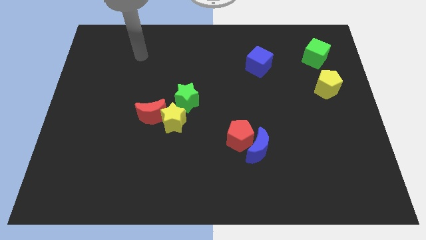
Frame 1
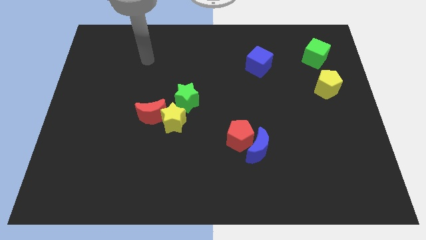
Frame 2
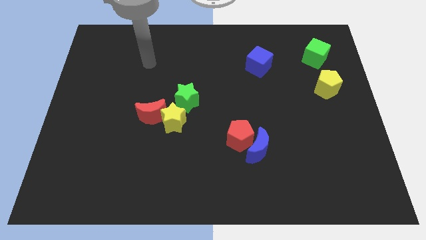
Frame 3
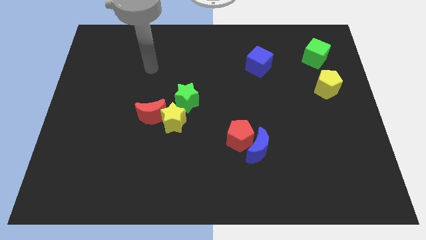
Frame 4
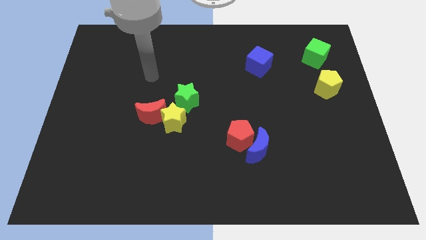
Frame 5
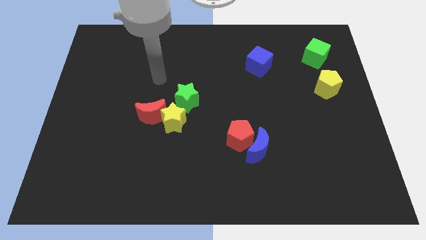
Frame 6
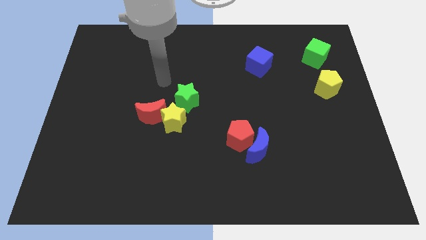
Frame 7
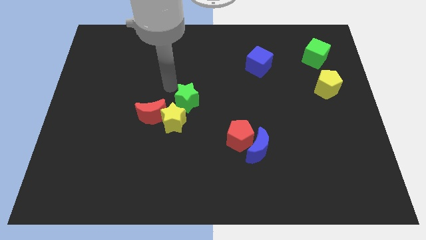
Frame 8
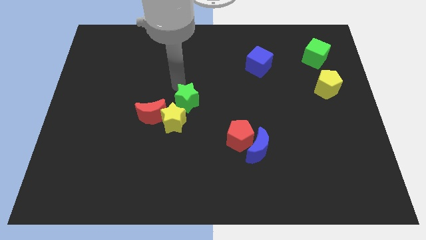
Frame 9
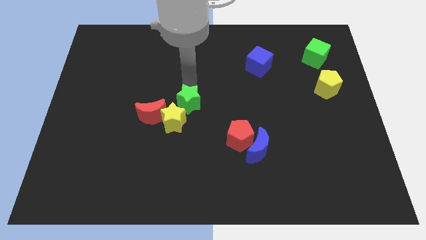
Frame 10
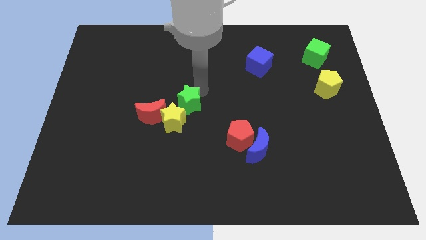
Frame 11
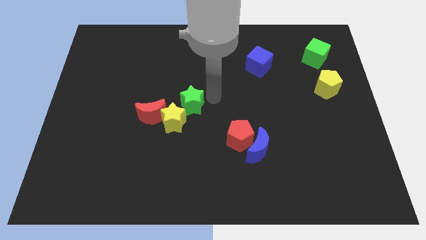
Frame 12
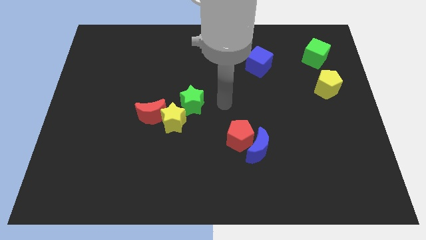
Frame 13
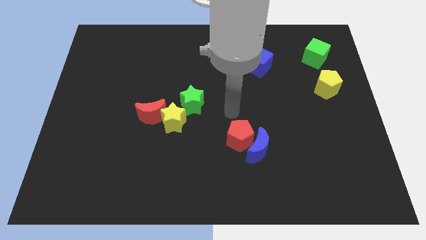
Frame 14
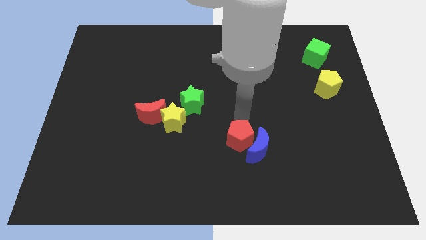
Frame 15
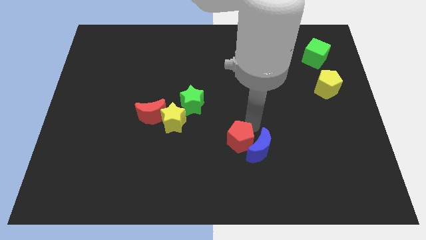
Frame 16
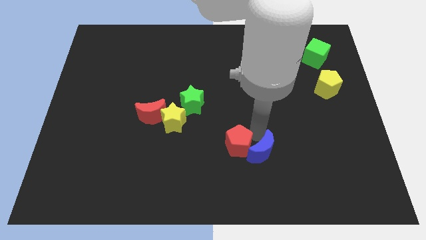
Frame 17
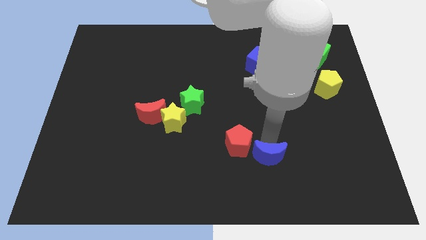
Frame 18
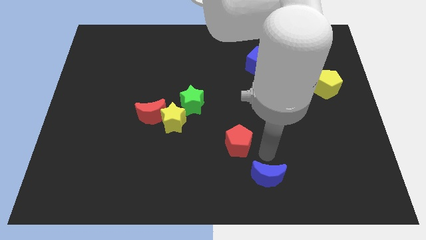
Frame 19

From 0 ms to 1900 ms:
move the red pentagon away from the blue moon

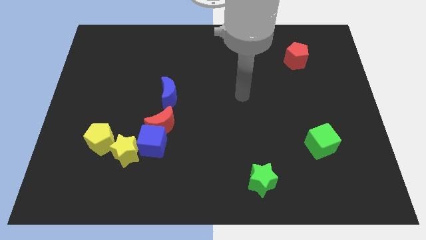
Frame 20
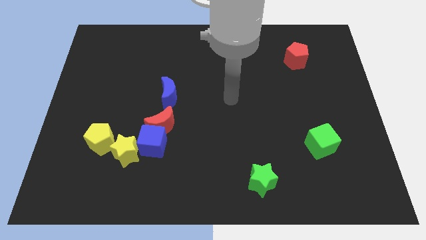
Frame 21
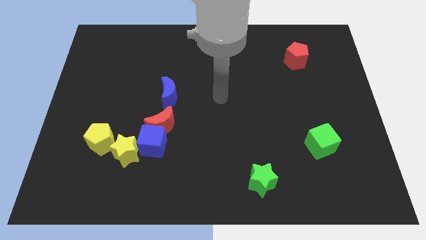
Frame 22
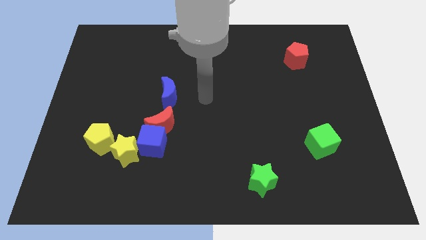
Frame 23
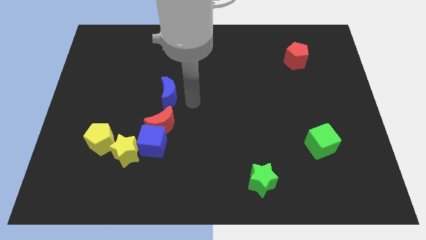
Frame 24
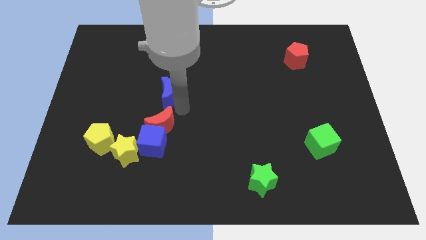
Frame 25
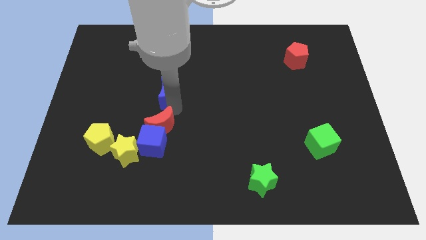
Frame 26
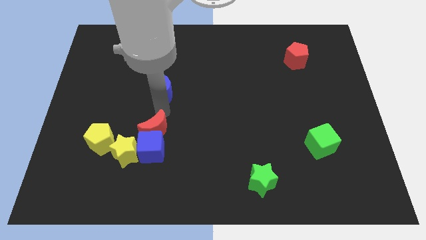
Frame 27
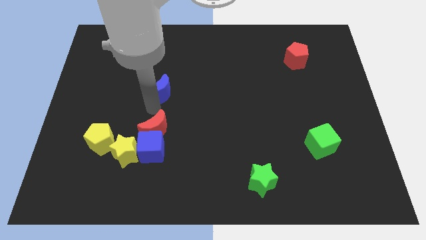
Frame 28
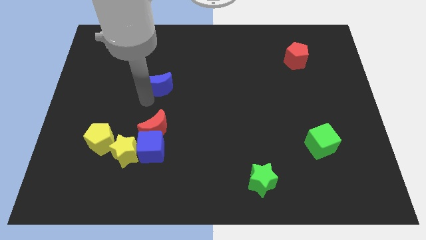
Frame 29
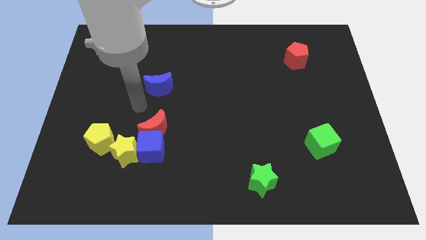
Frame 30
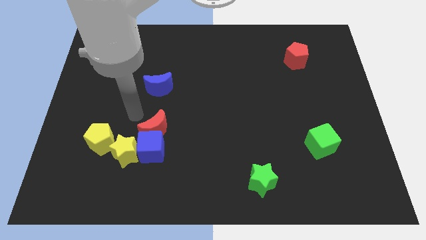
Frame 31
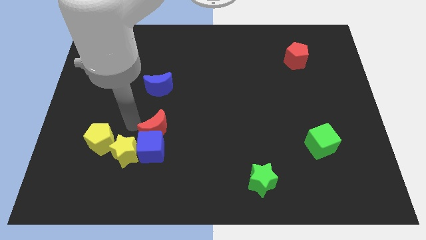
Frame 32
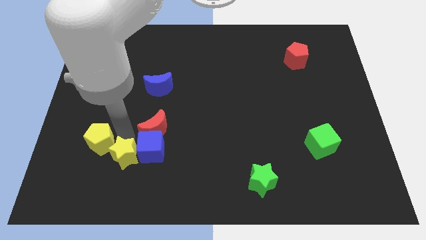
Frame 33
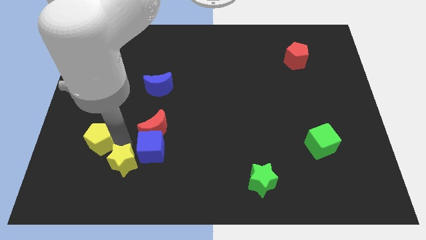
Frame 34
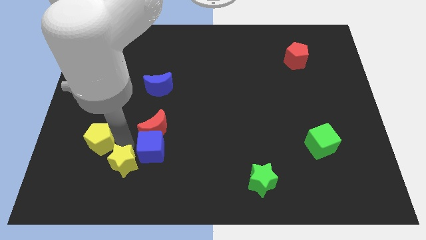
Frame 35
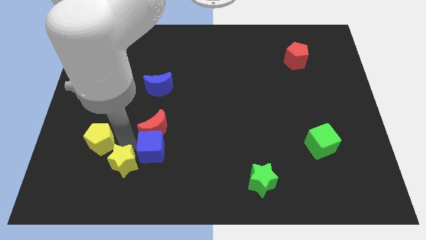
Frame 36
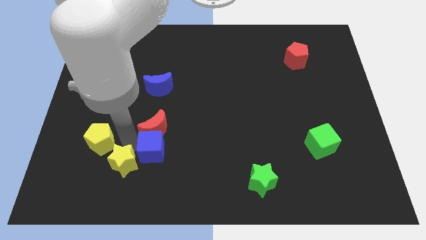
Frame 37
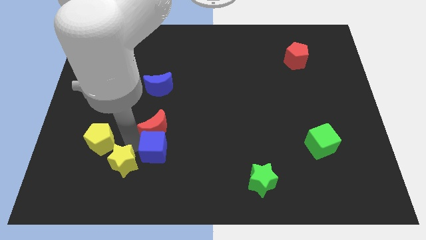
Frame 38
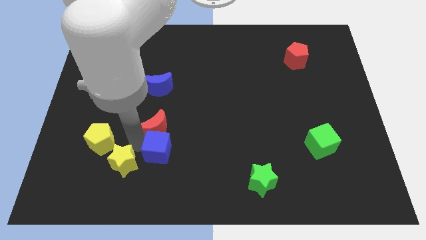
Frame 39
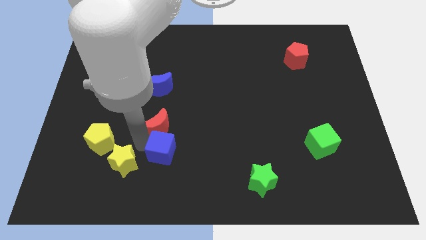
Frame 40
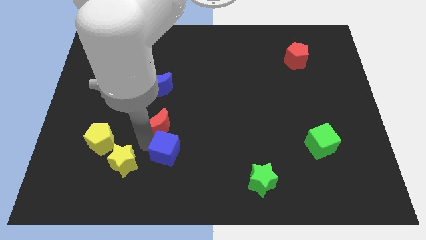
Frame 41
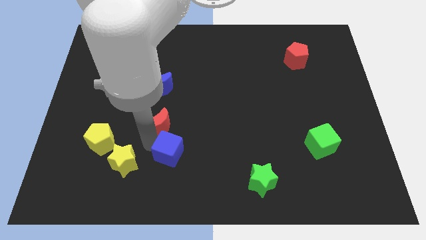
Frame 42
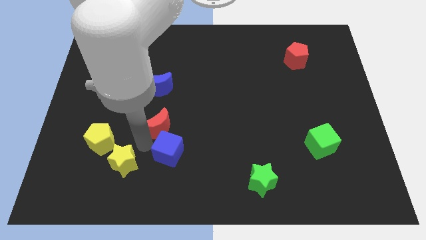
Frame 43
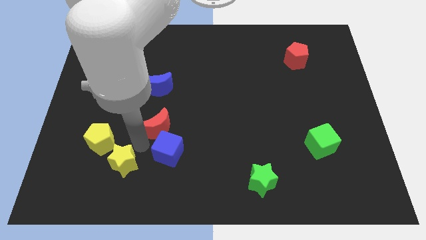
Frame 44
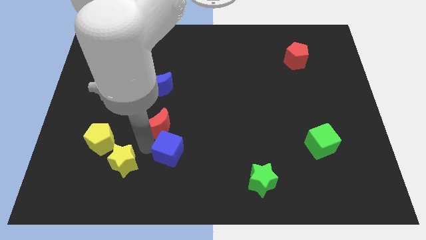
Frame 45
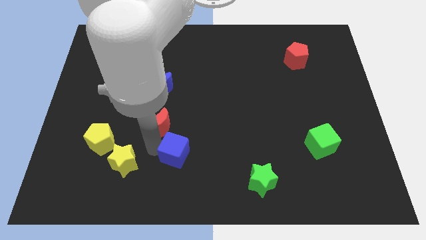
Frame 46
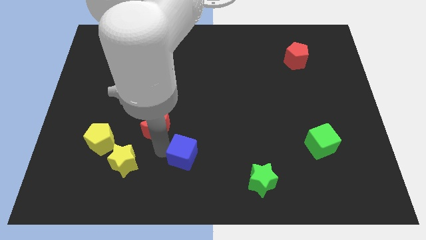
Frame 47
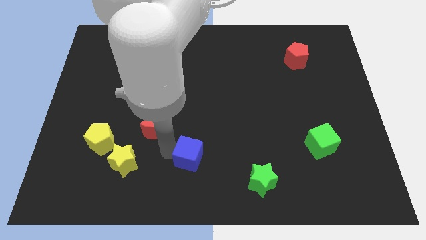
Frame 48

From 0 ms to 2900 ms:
move the blue cube away from the red moon and yellow star

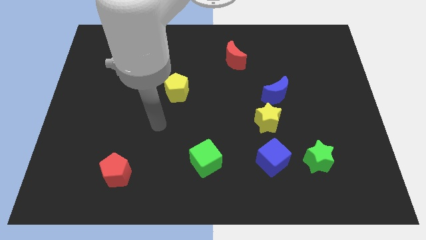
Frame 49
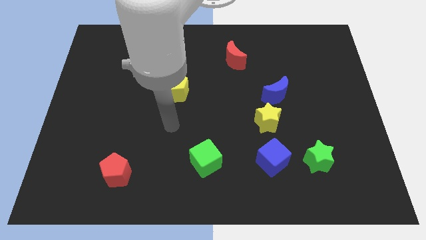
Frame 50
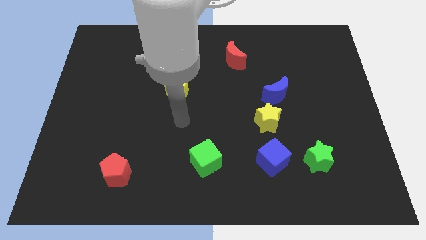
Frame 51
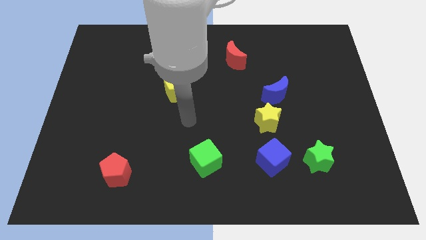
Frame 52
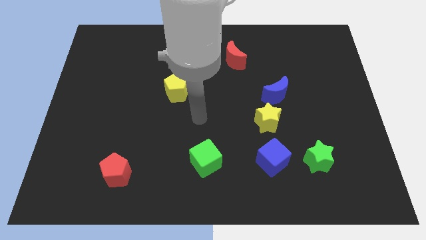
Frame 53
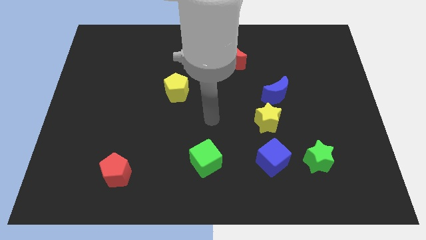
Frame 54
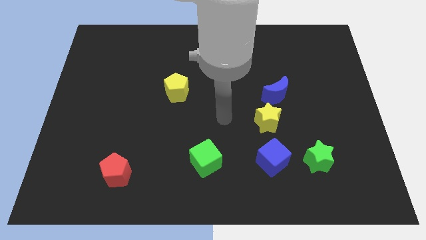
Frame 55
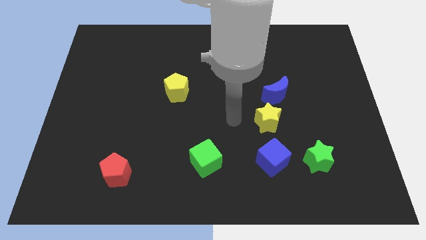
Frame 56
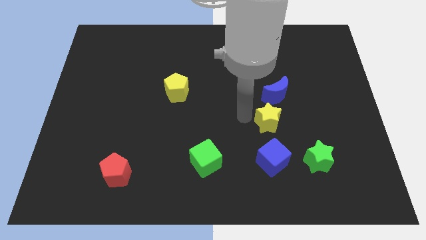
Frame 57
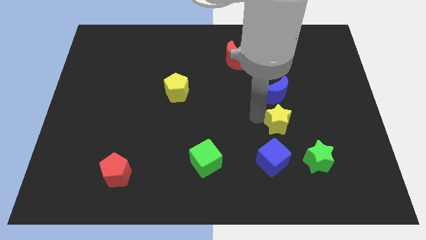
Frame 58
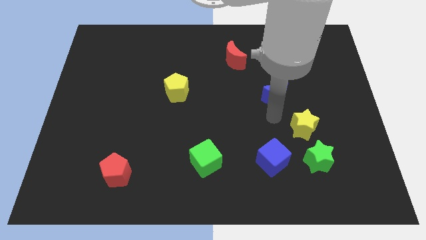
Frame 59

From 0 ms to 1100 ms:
separate the blue moon from the yellow star

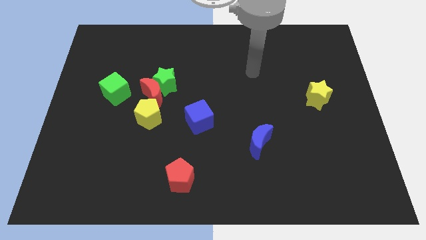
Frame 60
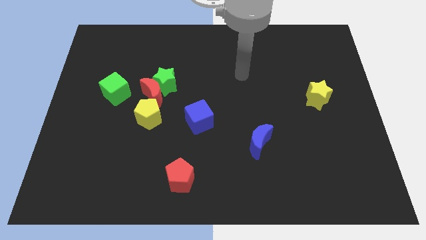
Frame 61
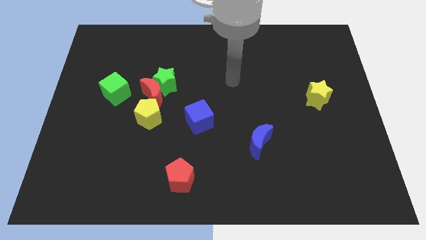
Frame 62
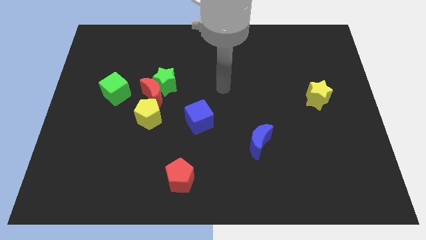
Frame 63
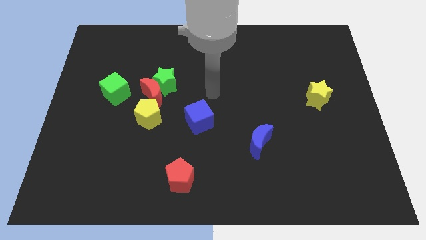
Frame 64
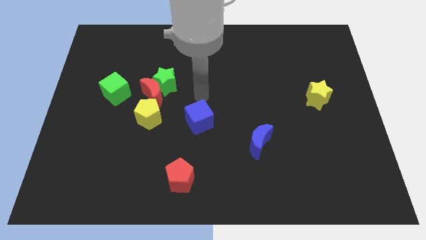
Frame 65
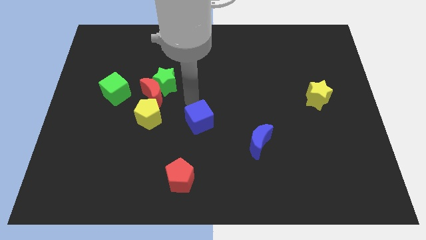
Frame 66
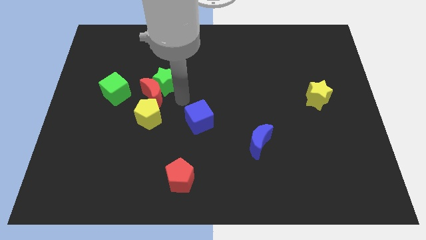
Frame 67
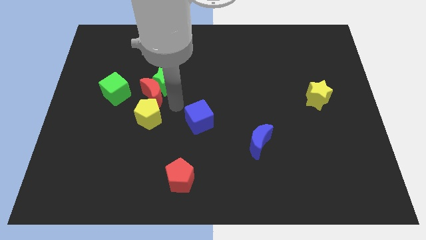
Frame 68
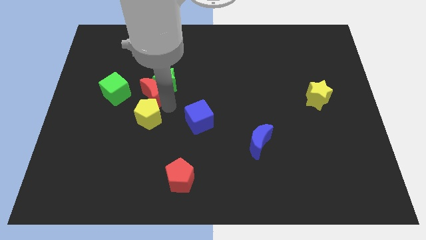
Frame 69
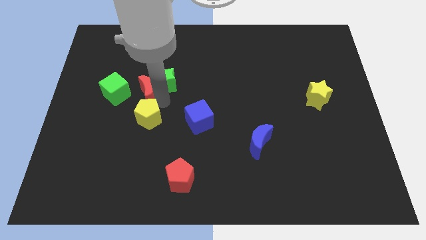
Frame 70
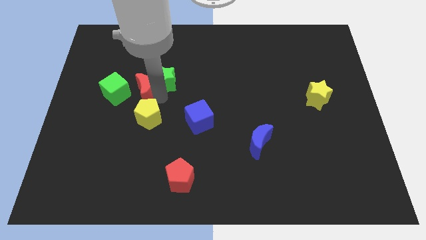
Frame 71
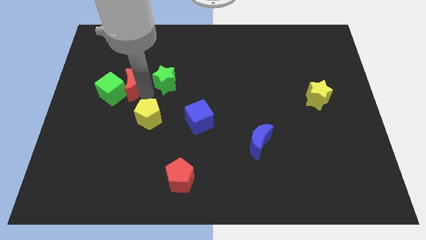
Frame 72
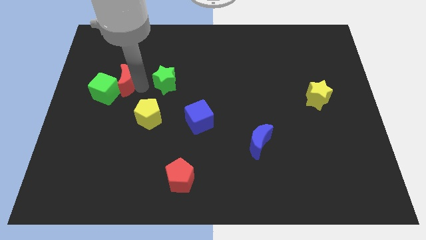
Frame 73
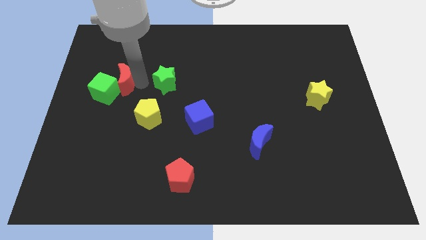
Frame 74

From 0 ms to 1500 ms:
separate the green star from the red moon

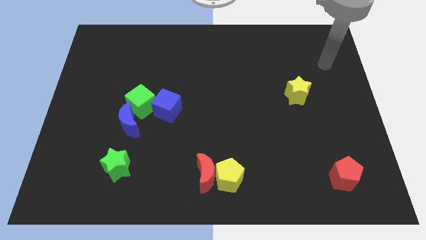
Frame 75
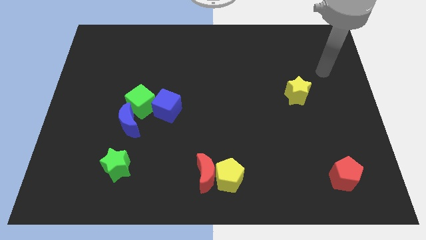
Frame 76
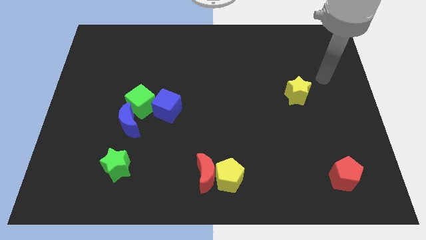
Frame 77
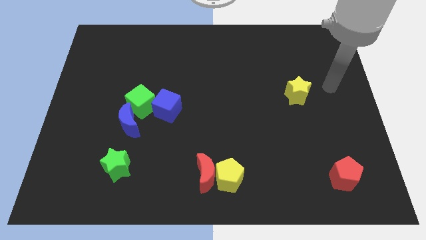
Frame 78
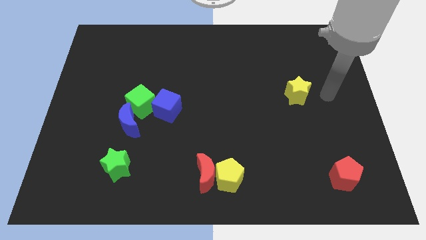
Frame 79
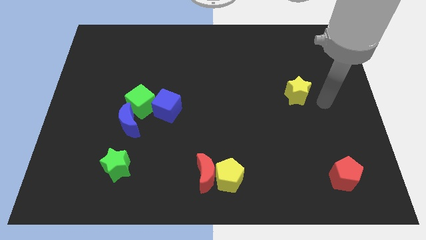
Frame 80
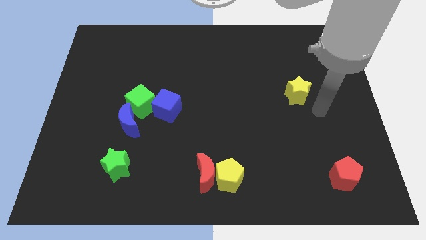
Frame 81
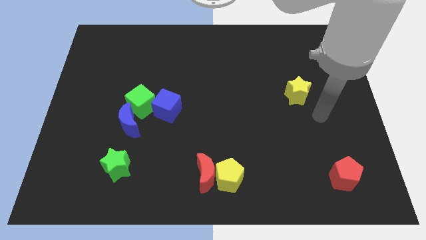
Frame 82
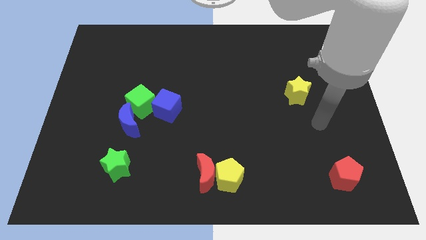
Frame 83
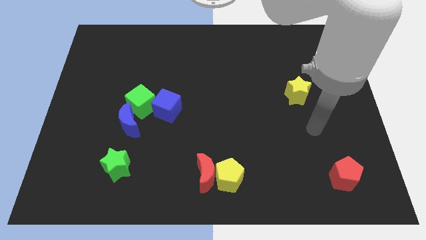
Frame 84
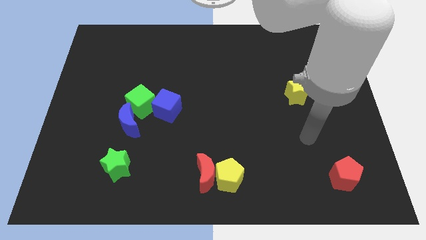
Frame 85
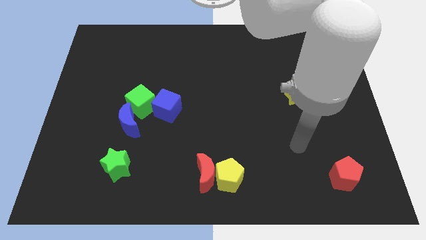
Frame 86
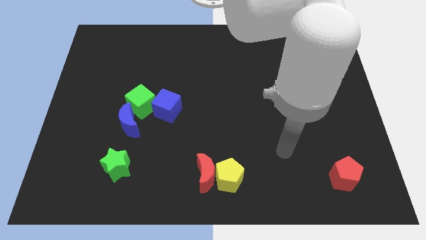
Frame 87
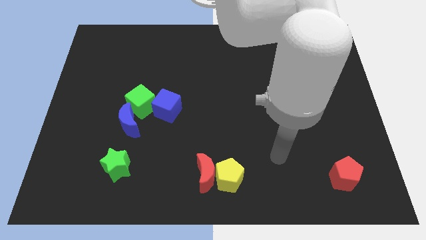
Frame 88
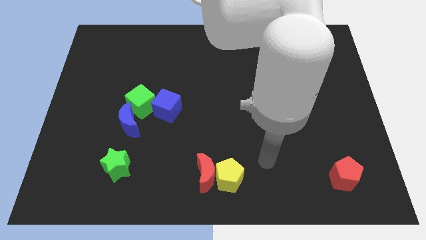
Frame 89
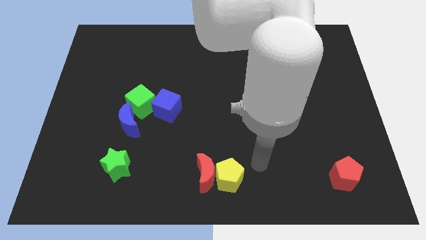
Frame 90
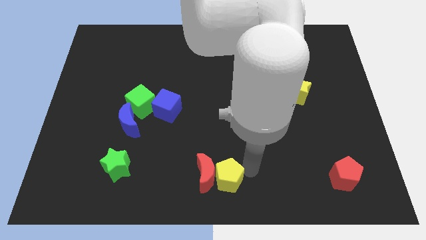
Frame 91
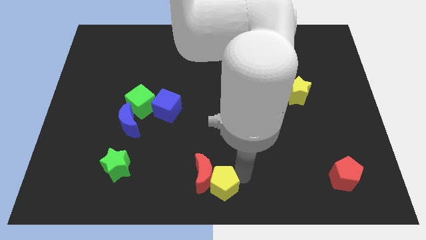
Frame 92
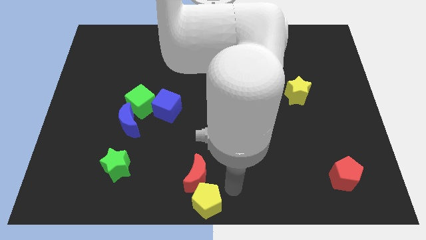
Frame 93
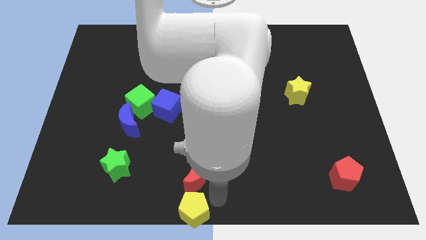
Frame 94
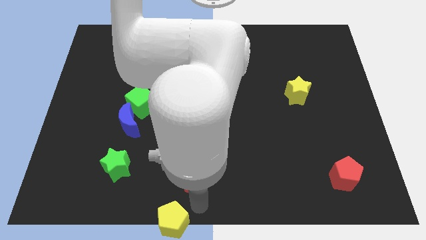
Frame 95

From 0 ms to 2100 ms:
pull the red moon apart from the yellow pentagon

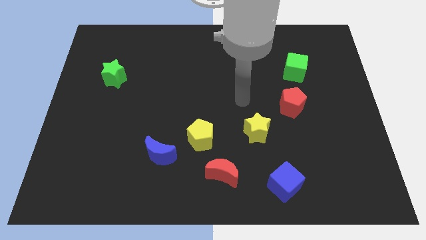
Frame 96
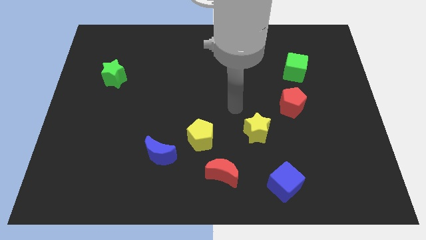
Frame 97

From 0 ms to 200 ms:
separate the blue moon from the yellow pentagon
